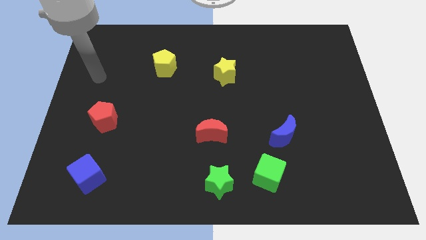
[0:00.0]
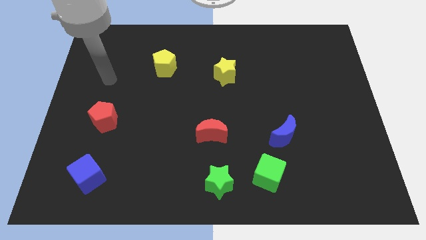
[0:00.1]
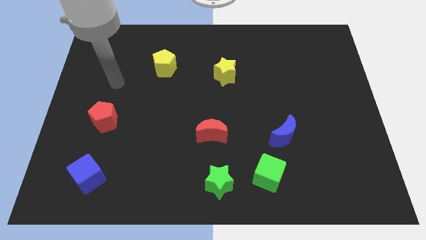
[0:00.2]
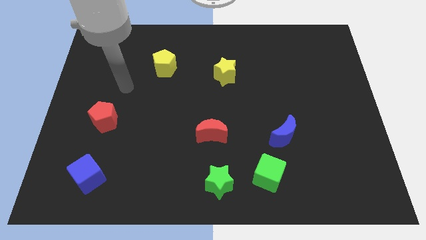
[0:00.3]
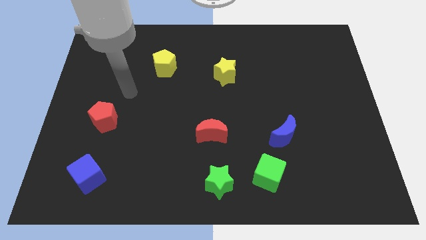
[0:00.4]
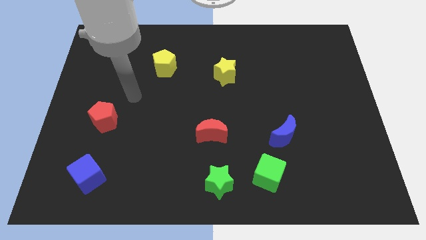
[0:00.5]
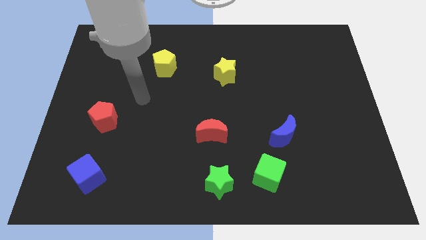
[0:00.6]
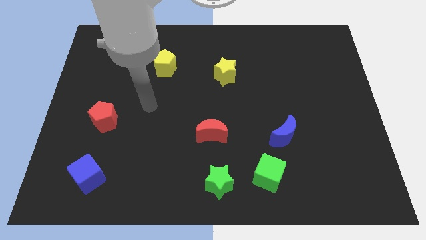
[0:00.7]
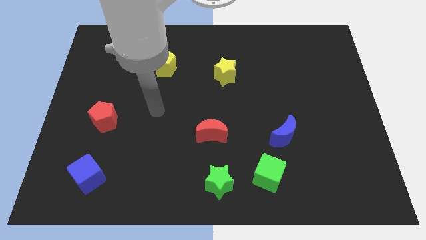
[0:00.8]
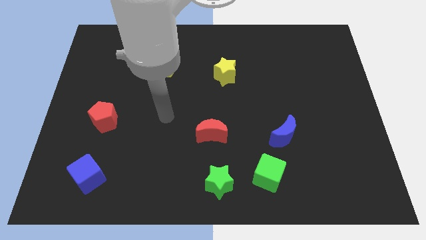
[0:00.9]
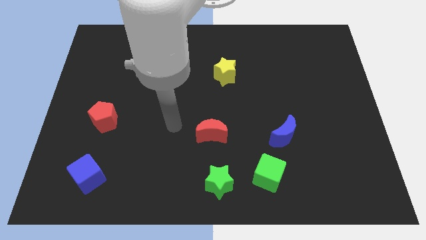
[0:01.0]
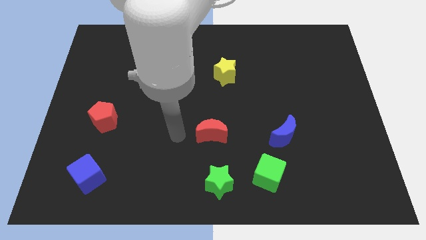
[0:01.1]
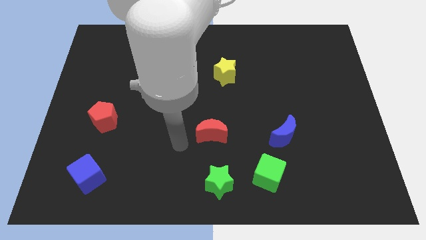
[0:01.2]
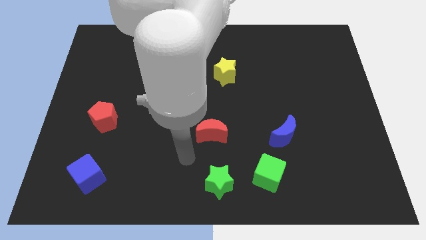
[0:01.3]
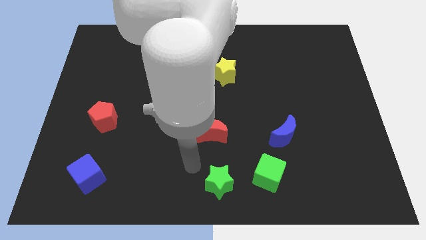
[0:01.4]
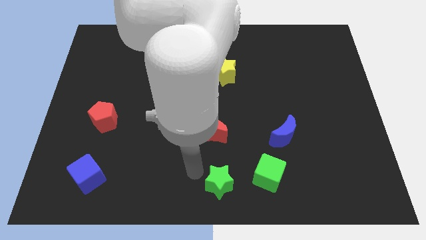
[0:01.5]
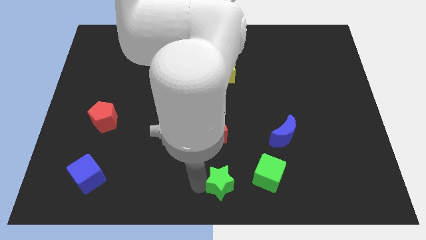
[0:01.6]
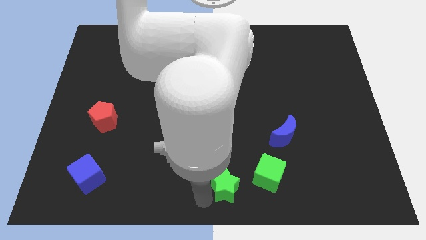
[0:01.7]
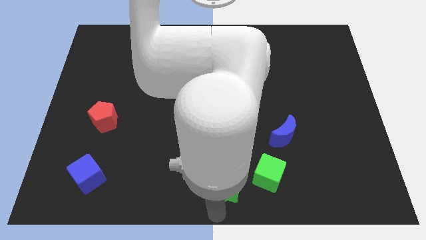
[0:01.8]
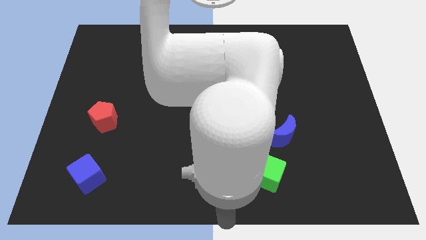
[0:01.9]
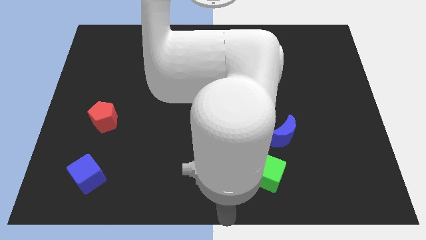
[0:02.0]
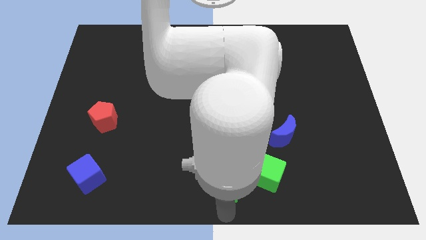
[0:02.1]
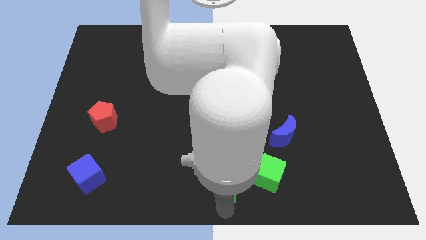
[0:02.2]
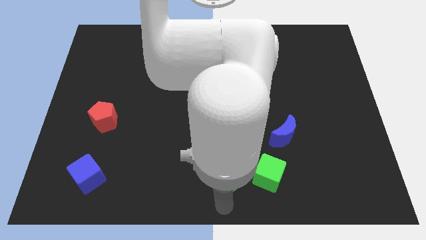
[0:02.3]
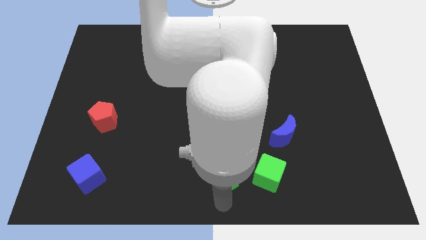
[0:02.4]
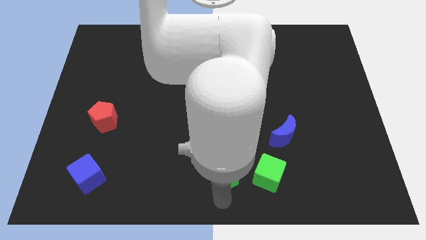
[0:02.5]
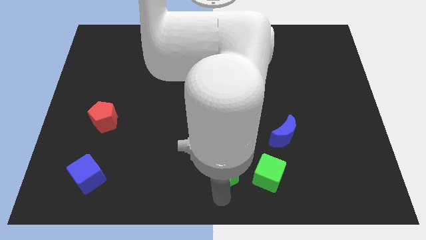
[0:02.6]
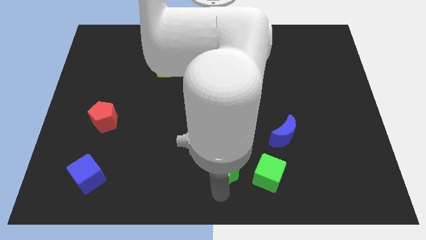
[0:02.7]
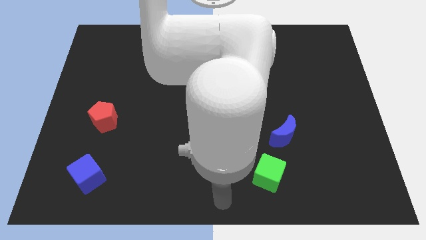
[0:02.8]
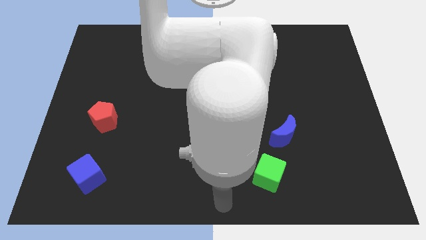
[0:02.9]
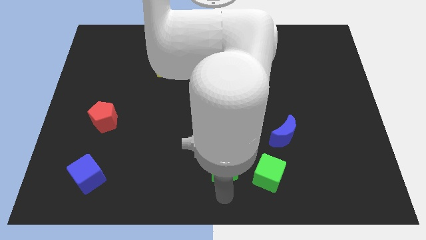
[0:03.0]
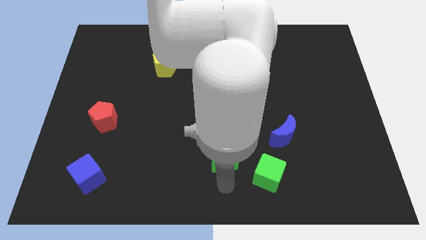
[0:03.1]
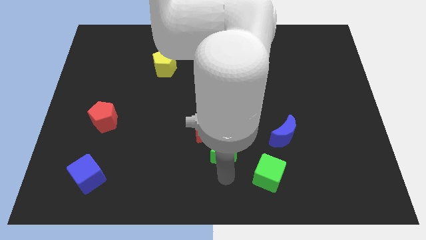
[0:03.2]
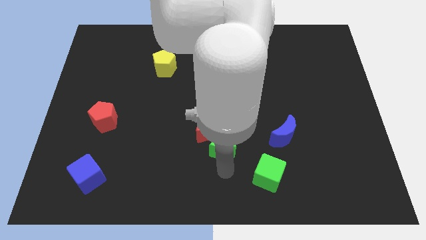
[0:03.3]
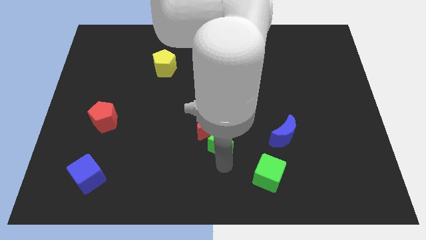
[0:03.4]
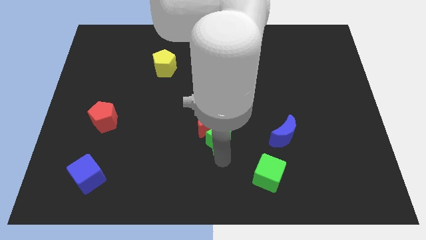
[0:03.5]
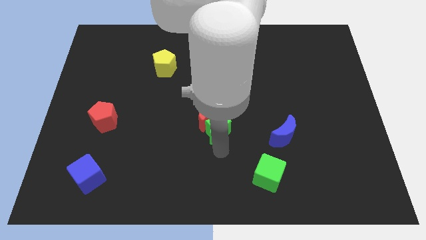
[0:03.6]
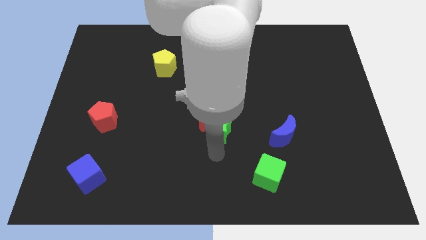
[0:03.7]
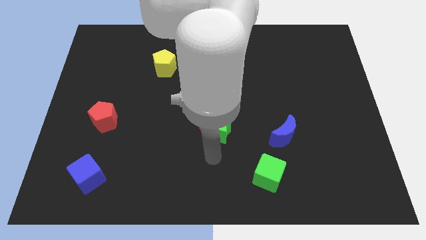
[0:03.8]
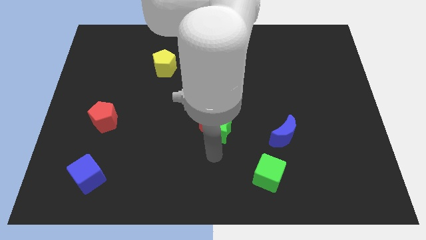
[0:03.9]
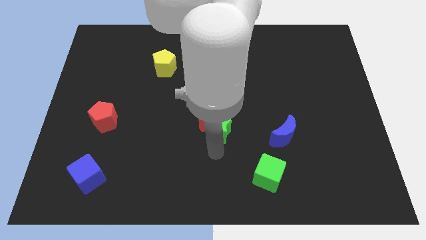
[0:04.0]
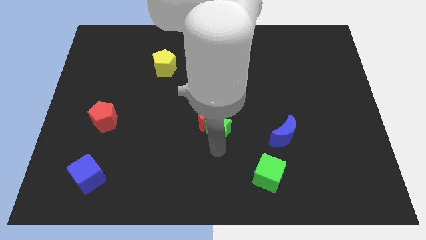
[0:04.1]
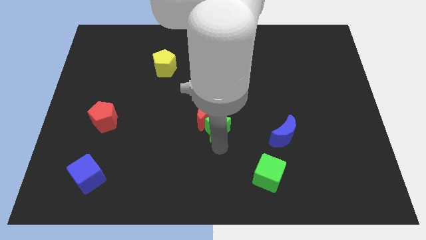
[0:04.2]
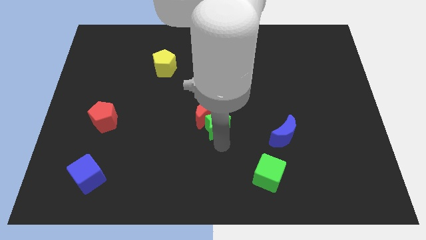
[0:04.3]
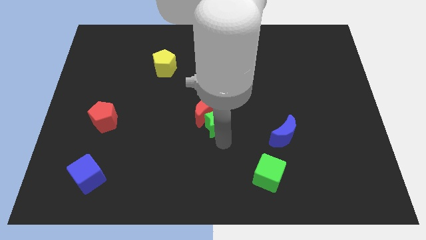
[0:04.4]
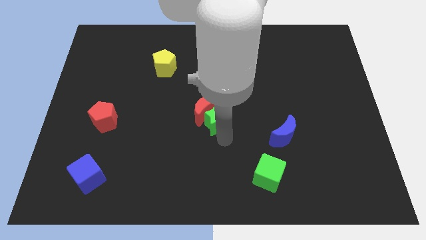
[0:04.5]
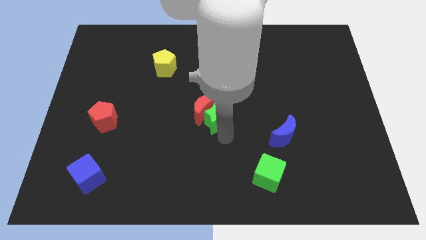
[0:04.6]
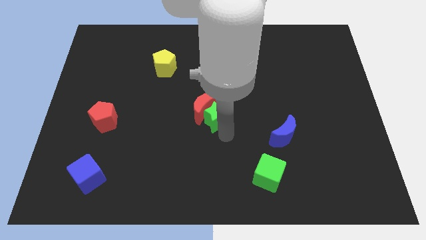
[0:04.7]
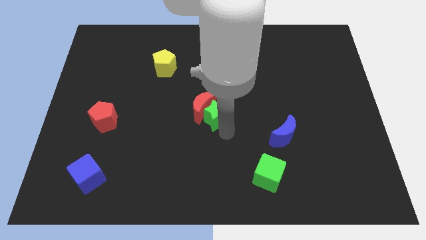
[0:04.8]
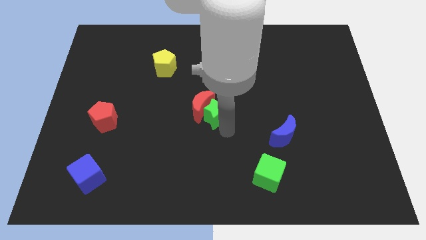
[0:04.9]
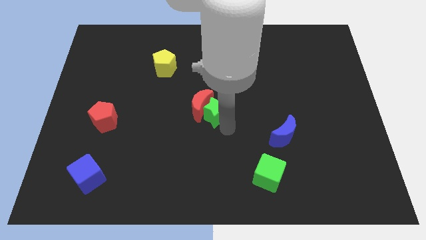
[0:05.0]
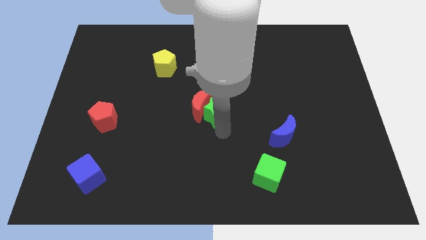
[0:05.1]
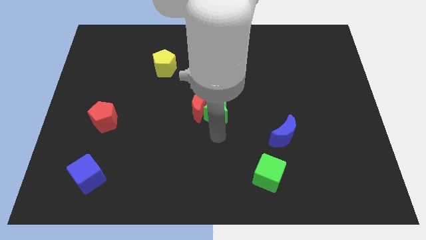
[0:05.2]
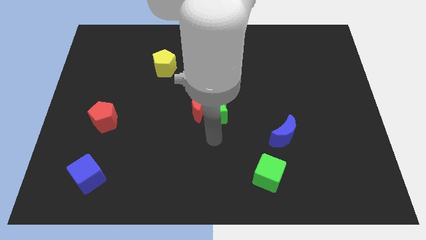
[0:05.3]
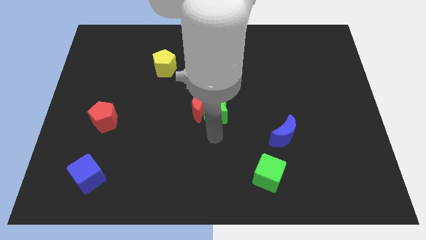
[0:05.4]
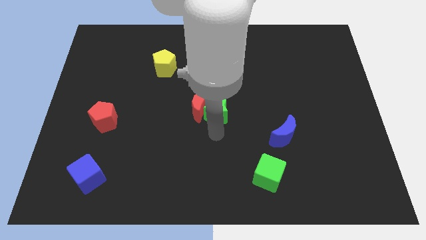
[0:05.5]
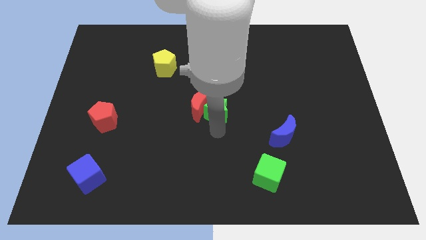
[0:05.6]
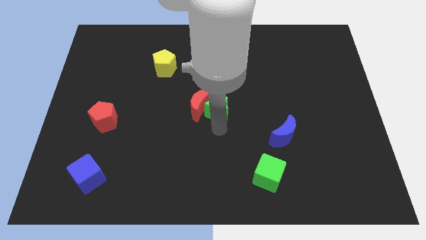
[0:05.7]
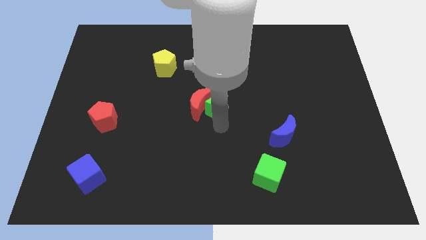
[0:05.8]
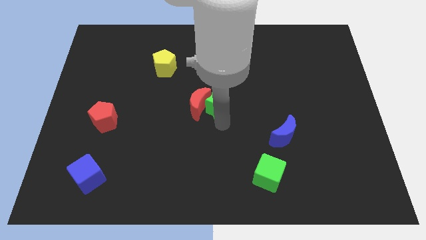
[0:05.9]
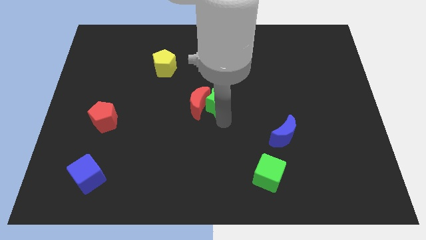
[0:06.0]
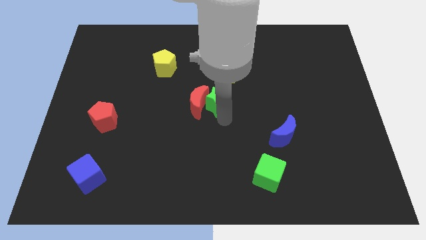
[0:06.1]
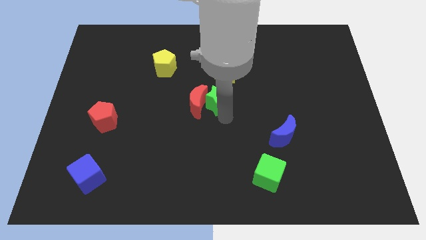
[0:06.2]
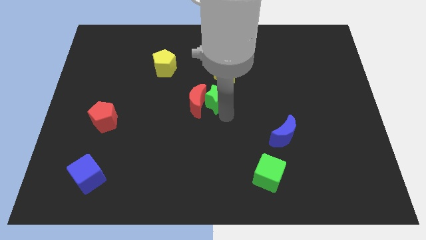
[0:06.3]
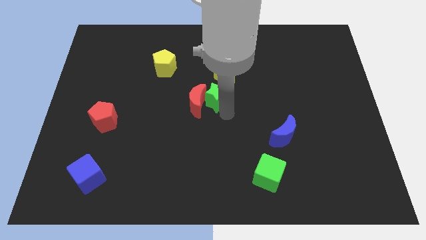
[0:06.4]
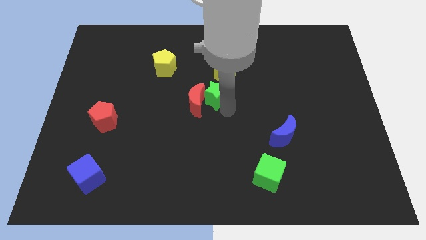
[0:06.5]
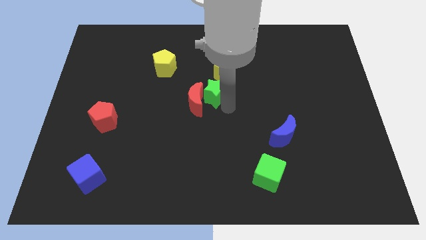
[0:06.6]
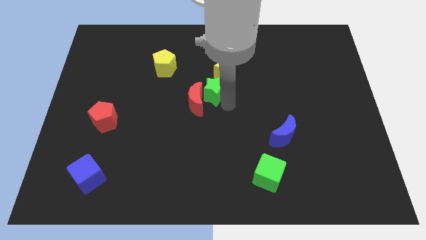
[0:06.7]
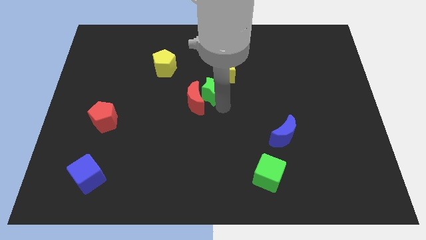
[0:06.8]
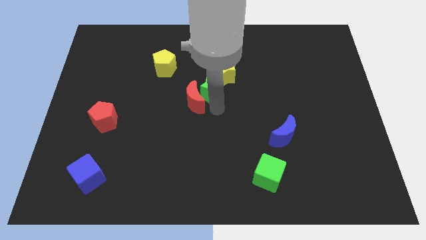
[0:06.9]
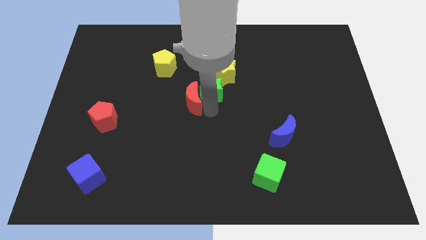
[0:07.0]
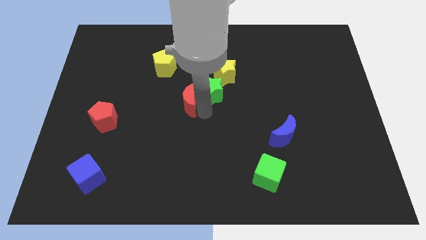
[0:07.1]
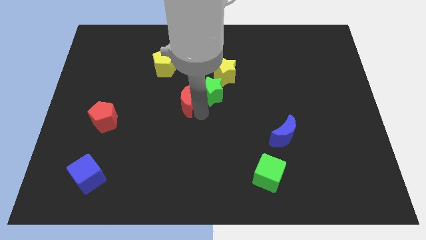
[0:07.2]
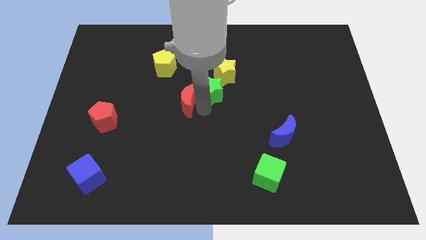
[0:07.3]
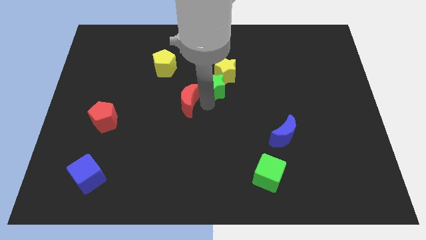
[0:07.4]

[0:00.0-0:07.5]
push the green star close to the yellow star
